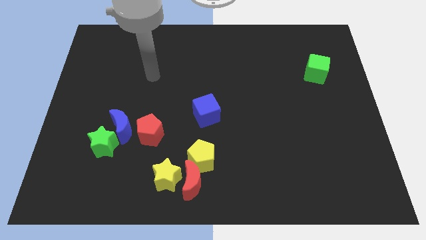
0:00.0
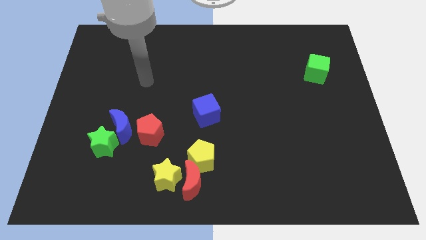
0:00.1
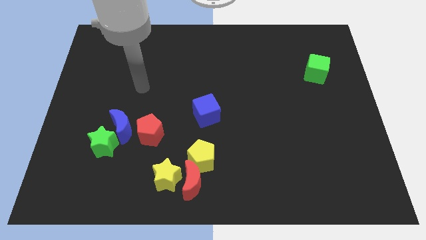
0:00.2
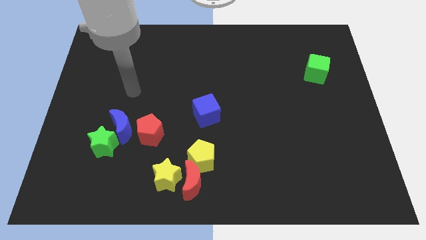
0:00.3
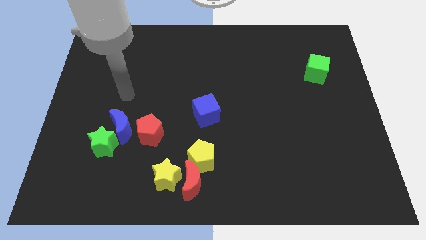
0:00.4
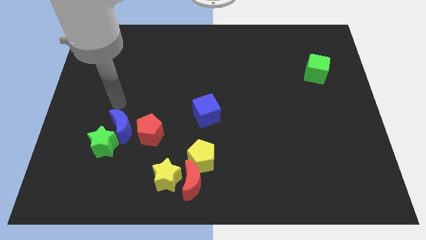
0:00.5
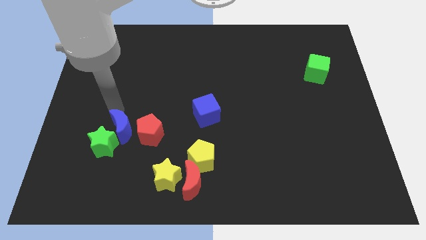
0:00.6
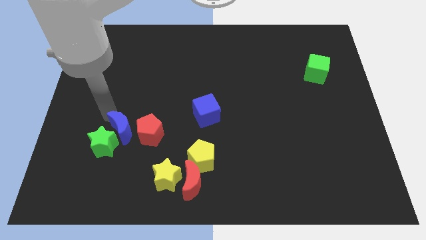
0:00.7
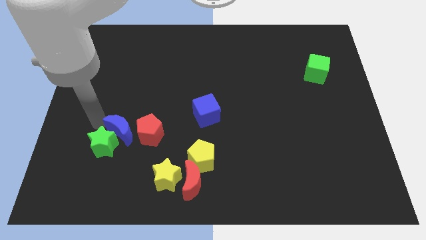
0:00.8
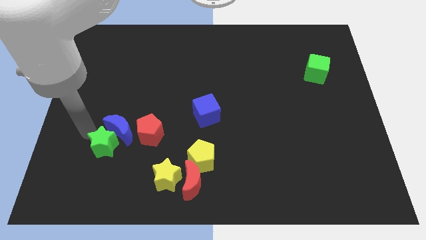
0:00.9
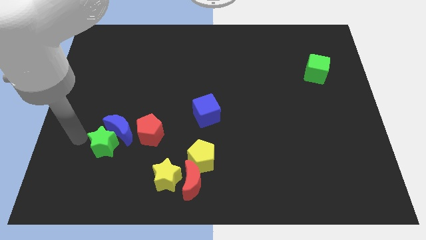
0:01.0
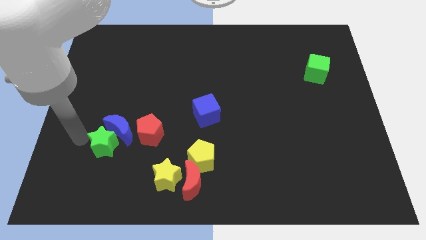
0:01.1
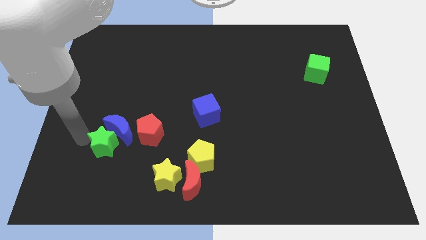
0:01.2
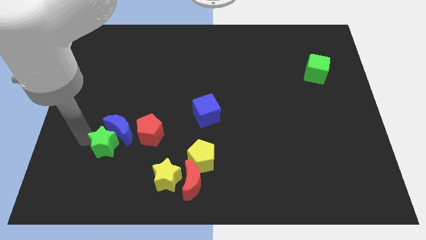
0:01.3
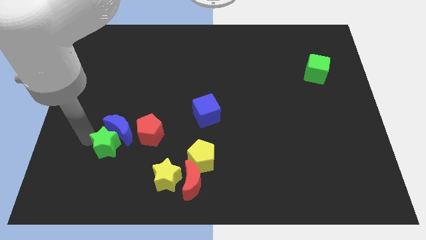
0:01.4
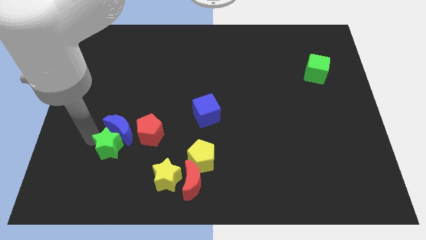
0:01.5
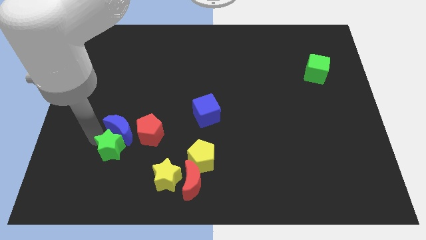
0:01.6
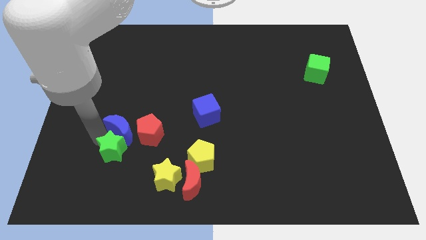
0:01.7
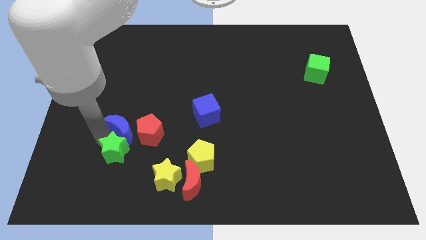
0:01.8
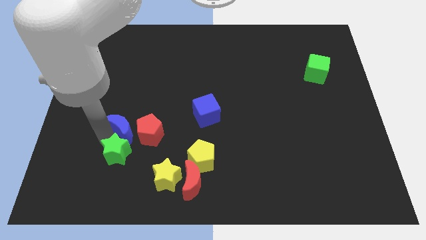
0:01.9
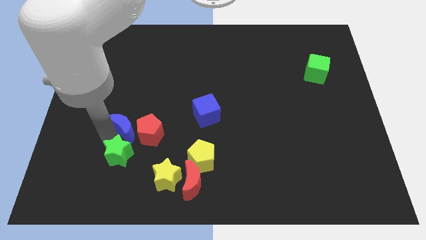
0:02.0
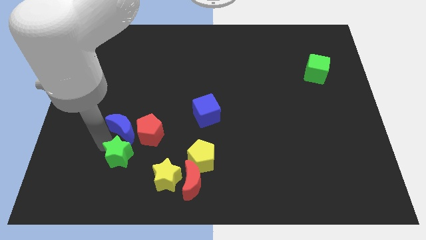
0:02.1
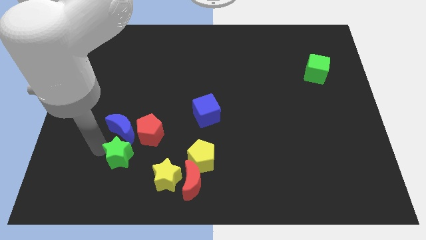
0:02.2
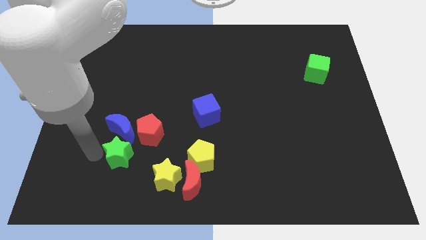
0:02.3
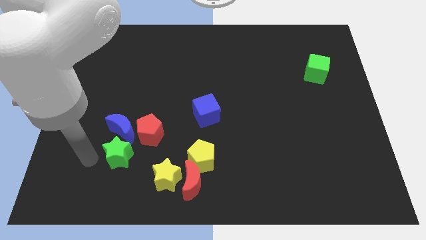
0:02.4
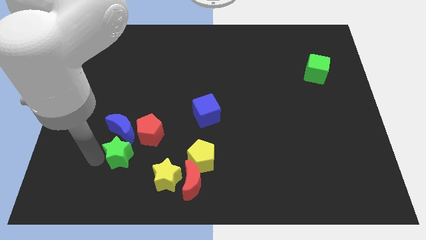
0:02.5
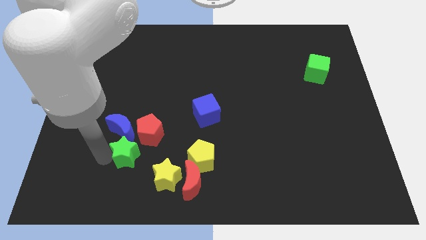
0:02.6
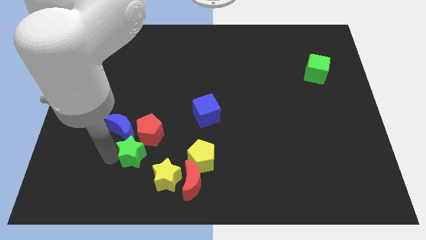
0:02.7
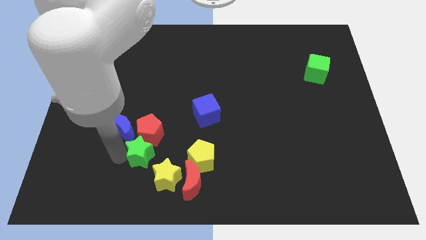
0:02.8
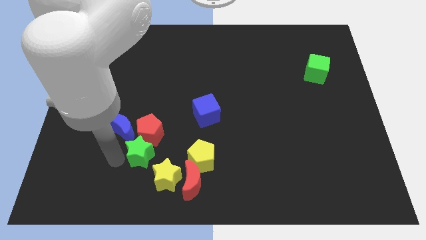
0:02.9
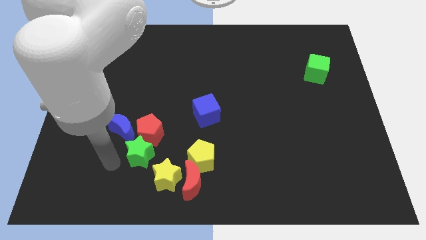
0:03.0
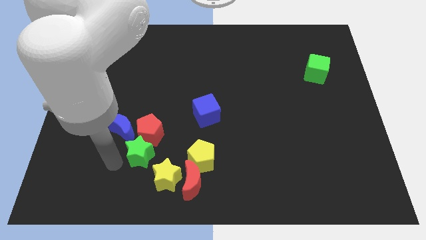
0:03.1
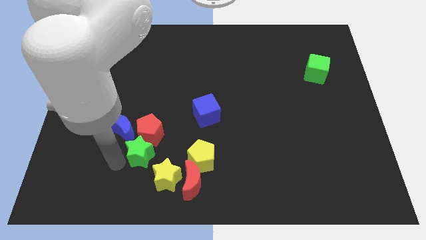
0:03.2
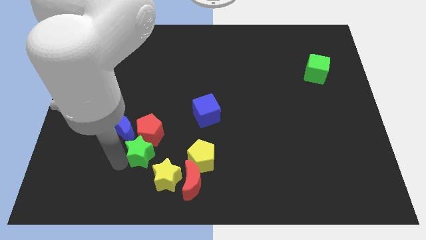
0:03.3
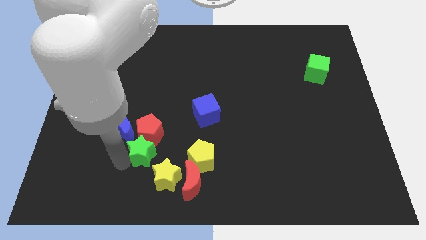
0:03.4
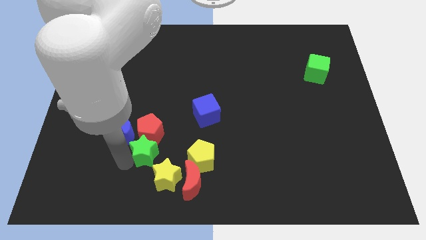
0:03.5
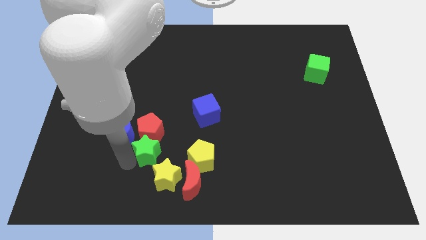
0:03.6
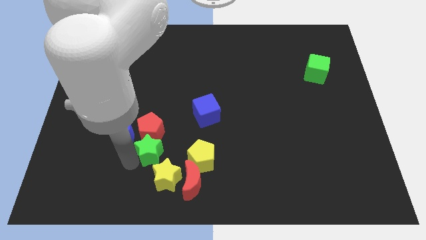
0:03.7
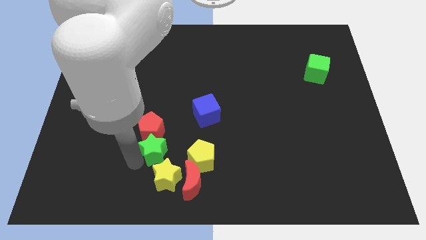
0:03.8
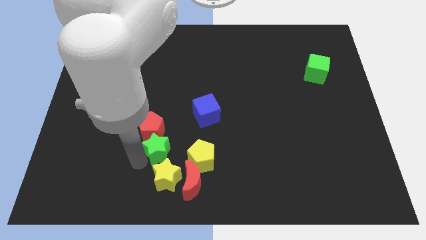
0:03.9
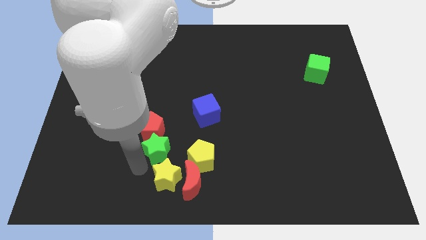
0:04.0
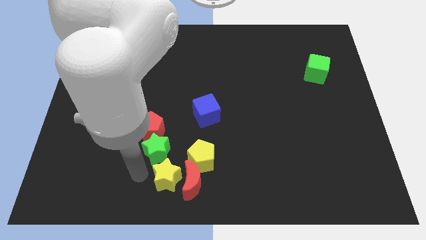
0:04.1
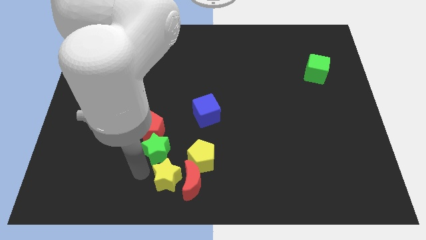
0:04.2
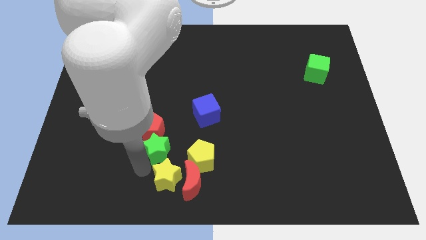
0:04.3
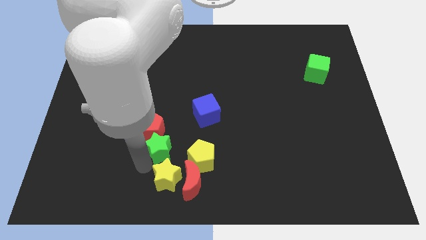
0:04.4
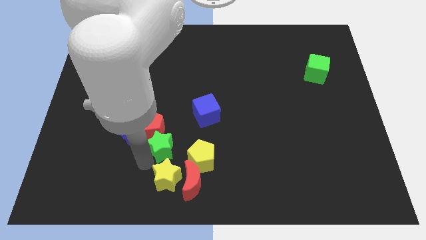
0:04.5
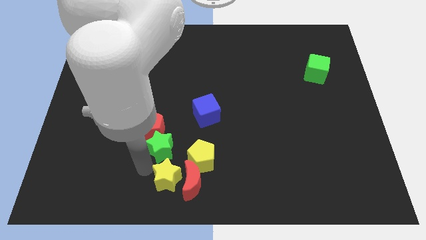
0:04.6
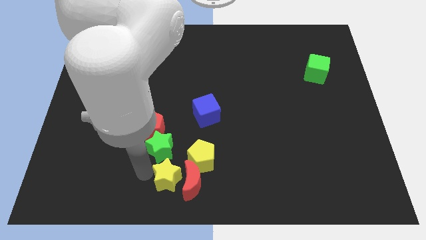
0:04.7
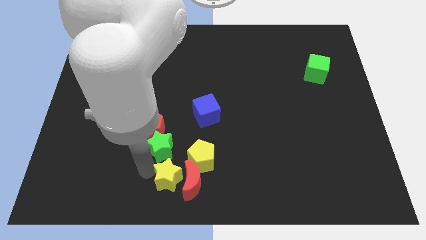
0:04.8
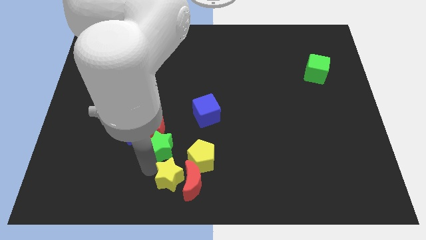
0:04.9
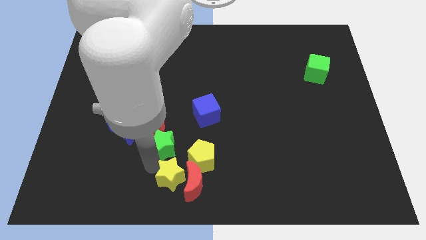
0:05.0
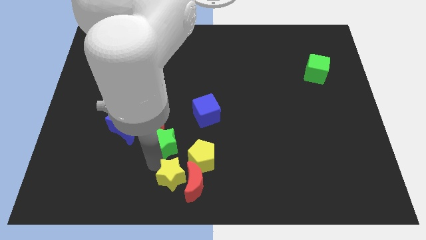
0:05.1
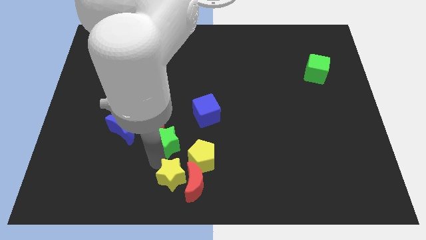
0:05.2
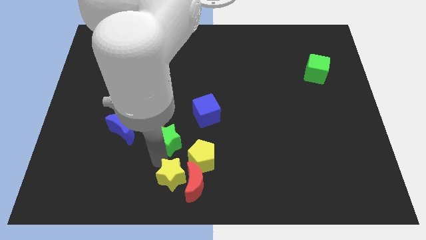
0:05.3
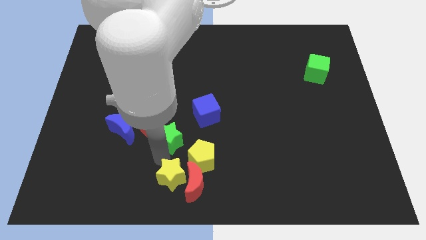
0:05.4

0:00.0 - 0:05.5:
slightly push the green star diagonally up and right

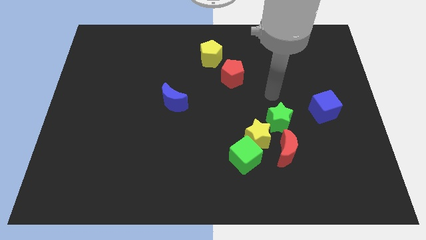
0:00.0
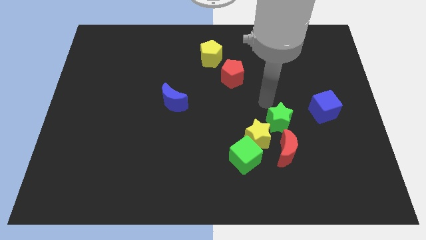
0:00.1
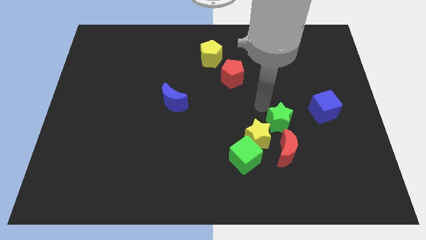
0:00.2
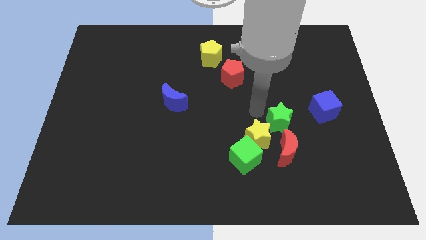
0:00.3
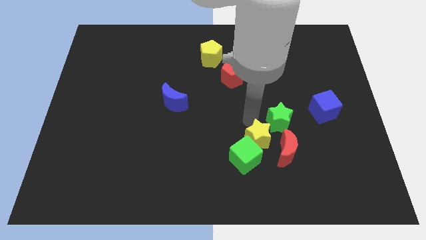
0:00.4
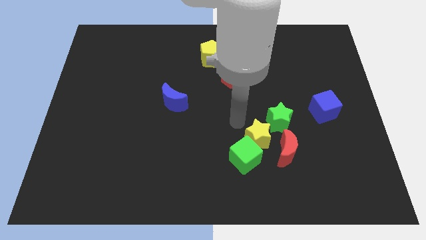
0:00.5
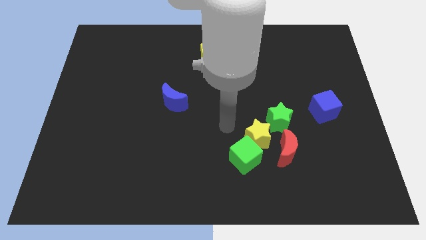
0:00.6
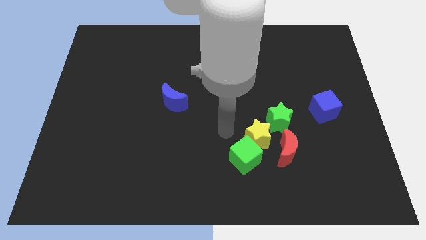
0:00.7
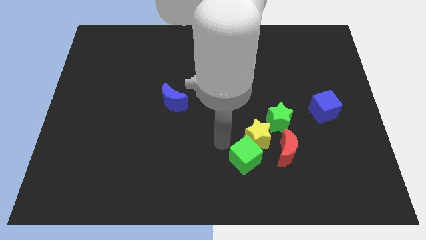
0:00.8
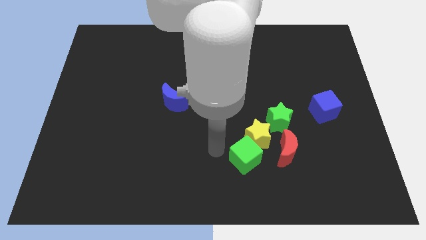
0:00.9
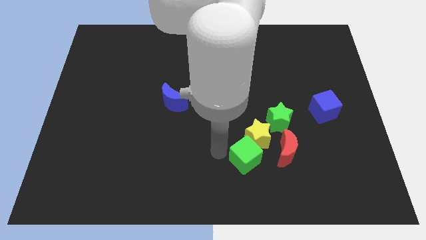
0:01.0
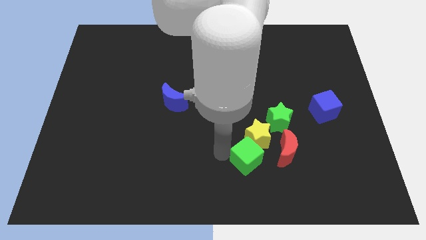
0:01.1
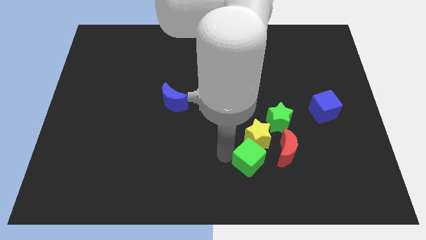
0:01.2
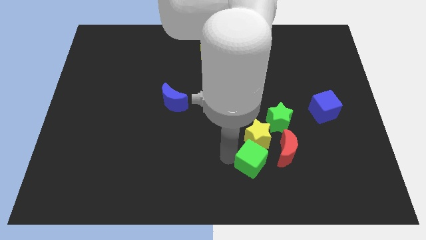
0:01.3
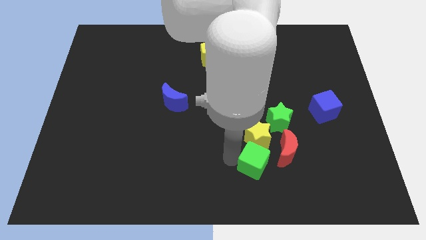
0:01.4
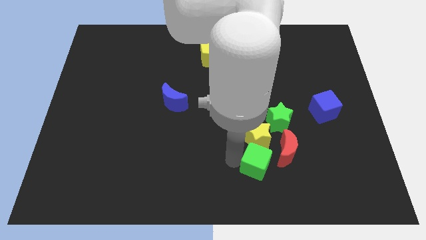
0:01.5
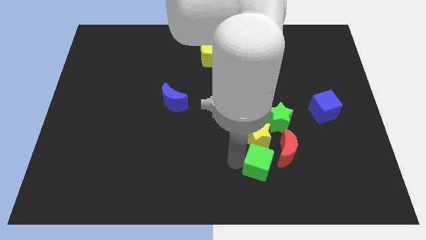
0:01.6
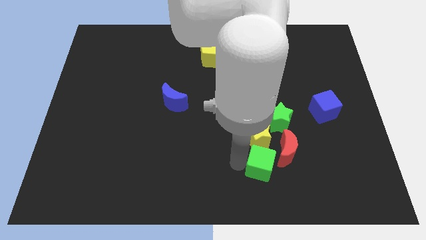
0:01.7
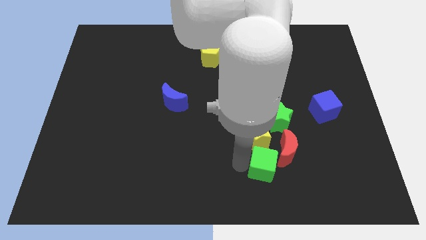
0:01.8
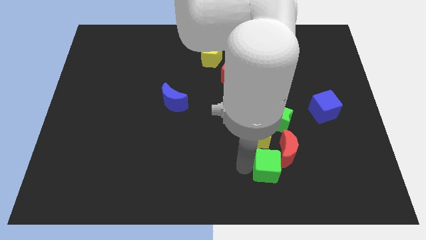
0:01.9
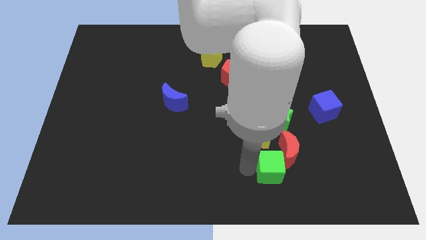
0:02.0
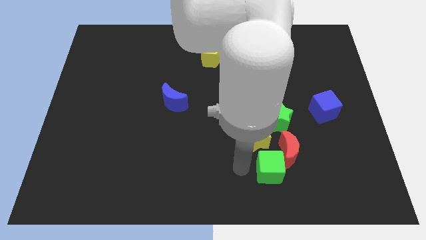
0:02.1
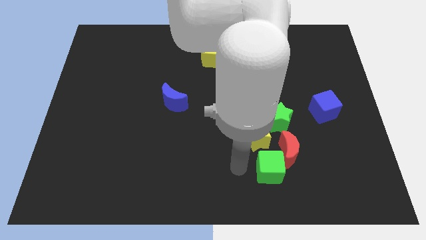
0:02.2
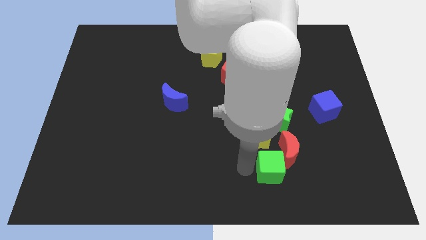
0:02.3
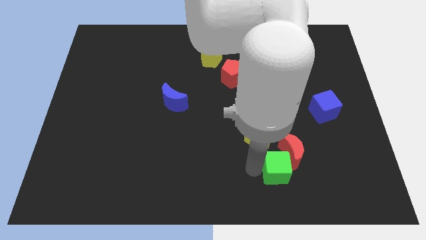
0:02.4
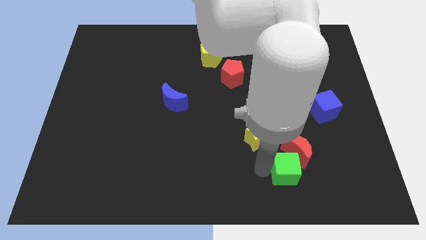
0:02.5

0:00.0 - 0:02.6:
move the green cube a little bit to the right
